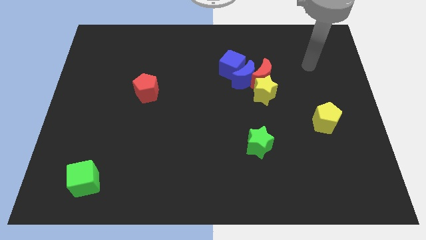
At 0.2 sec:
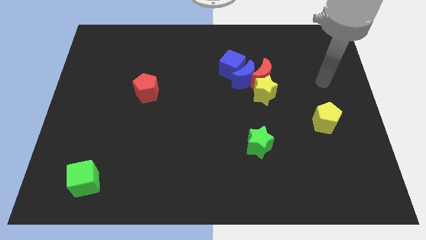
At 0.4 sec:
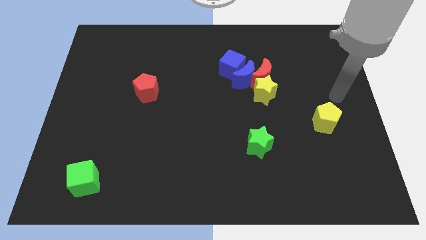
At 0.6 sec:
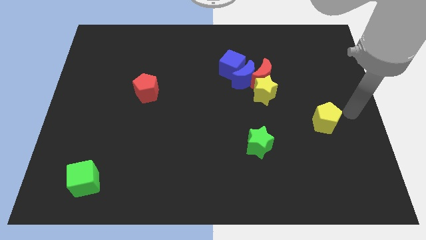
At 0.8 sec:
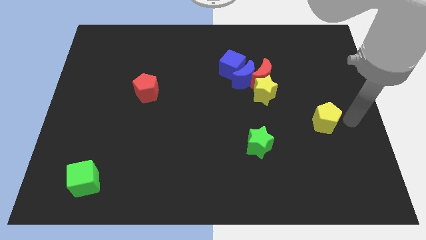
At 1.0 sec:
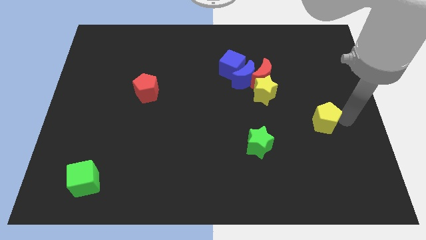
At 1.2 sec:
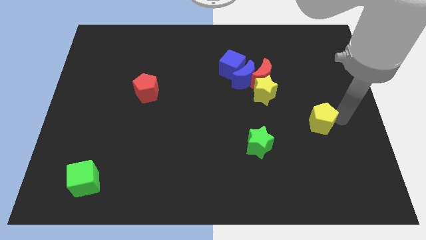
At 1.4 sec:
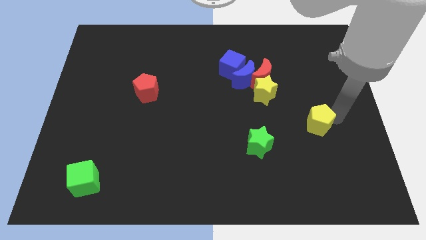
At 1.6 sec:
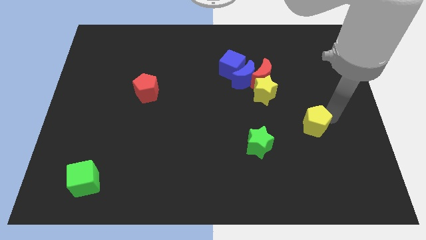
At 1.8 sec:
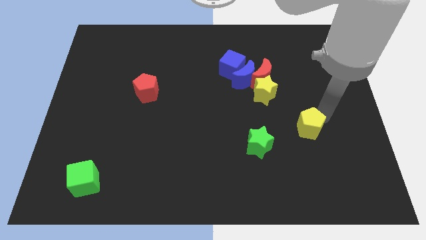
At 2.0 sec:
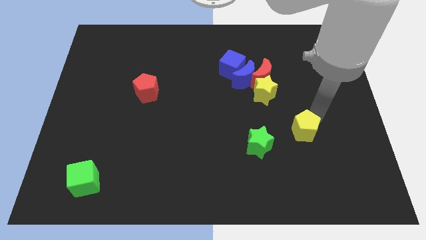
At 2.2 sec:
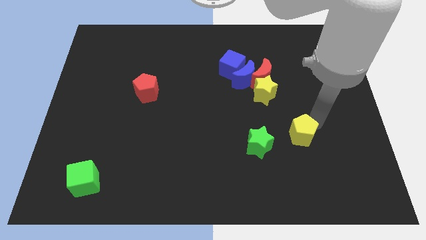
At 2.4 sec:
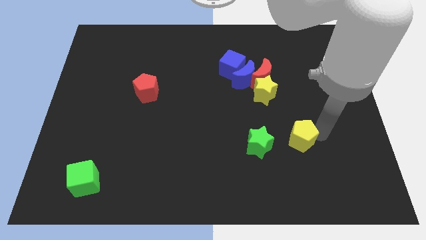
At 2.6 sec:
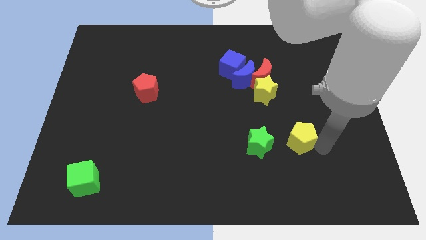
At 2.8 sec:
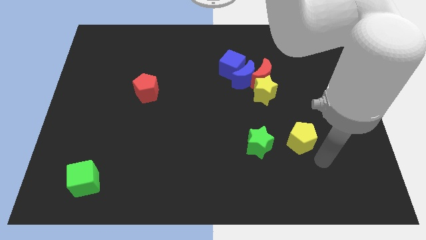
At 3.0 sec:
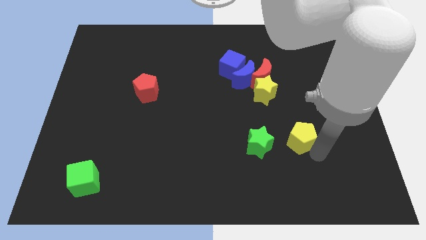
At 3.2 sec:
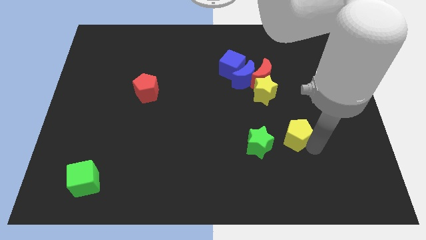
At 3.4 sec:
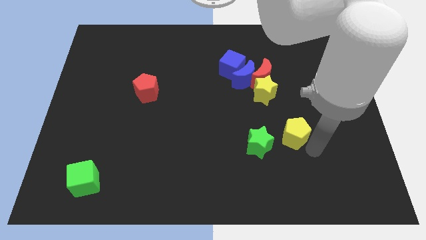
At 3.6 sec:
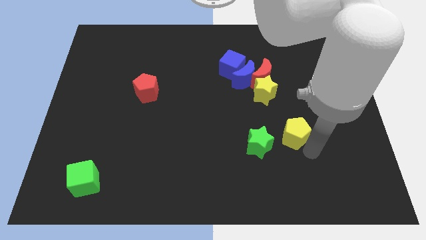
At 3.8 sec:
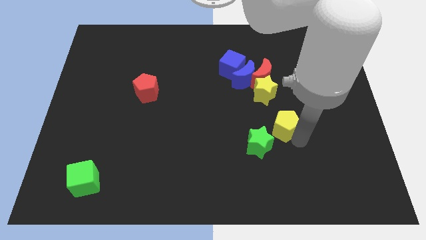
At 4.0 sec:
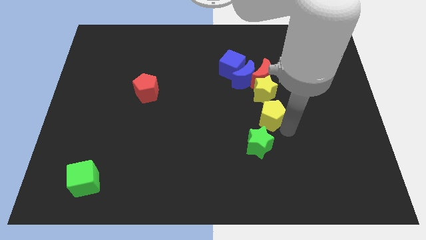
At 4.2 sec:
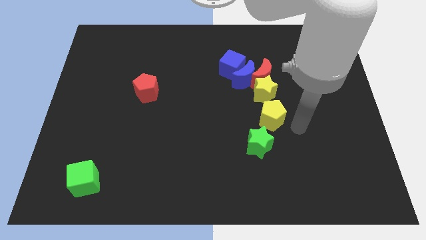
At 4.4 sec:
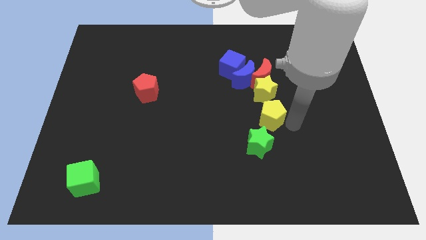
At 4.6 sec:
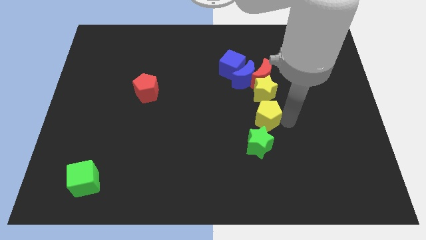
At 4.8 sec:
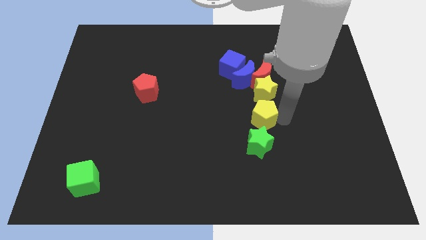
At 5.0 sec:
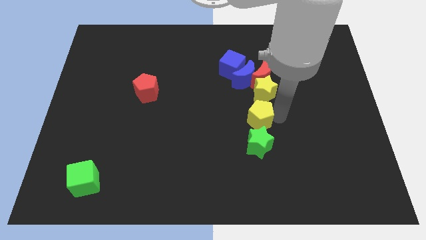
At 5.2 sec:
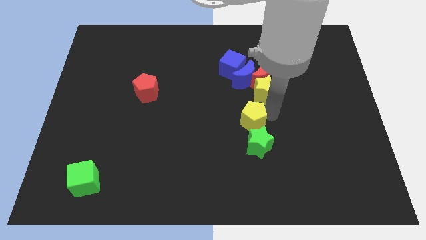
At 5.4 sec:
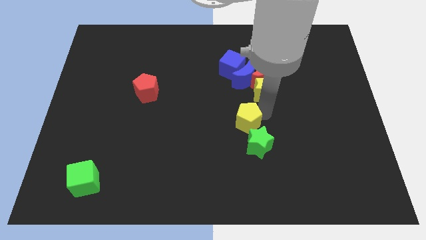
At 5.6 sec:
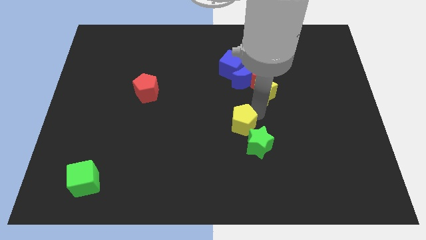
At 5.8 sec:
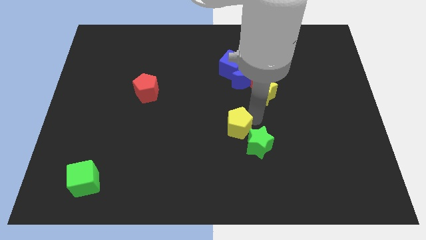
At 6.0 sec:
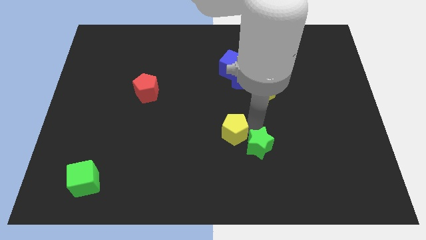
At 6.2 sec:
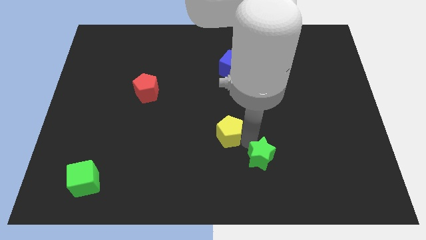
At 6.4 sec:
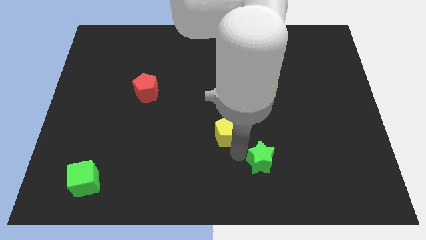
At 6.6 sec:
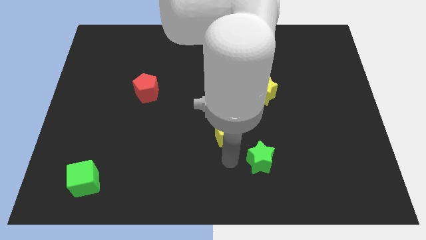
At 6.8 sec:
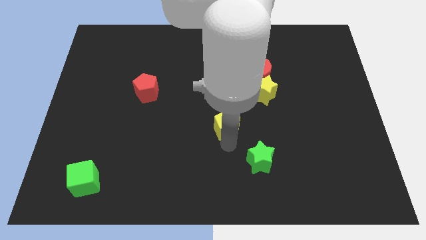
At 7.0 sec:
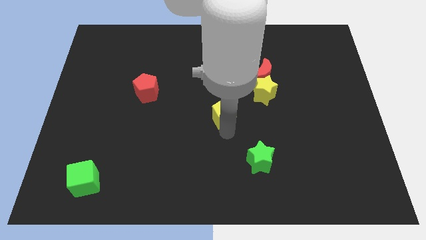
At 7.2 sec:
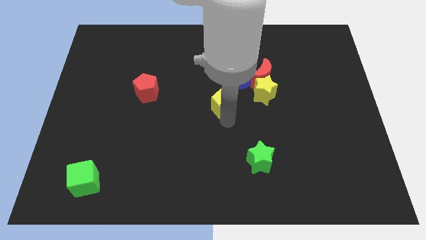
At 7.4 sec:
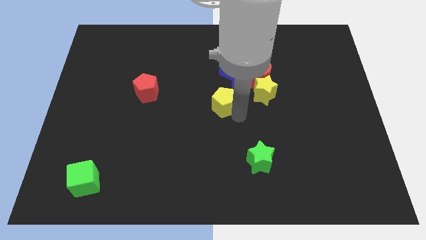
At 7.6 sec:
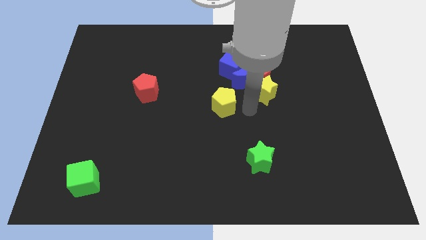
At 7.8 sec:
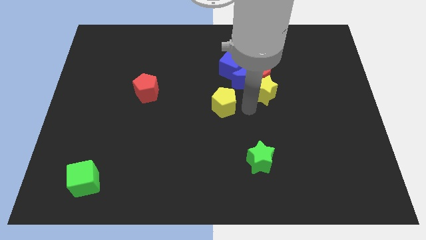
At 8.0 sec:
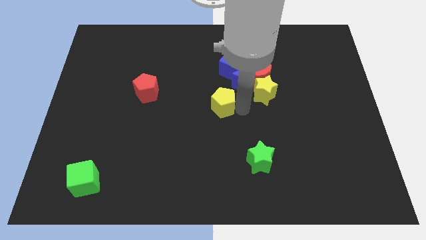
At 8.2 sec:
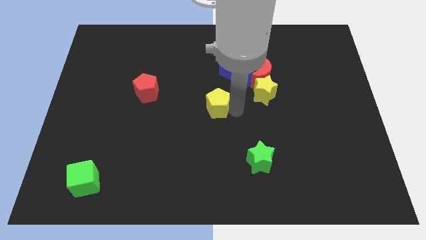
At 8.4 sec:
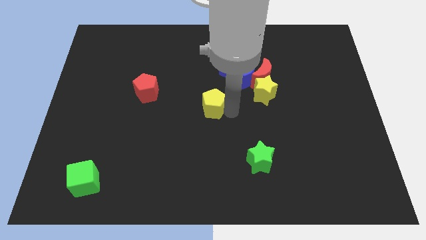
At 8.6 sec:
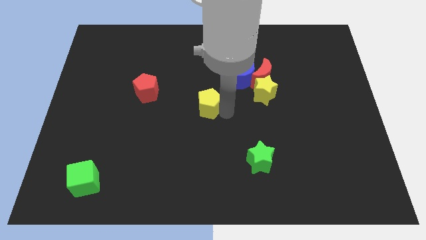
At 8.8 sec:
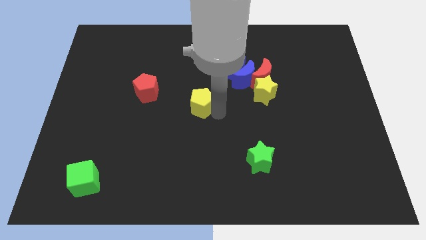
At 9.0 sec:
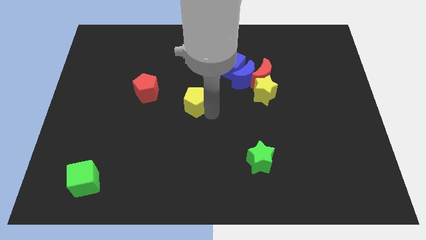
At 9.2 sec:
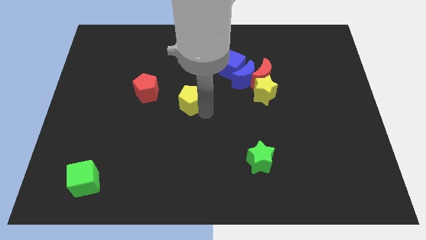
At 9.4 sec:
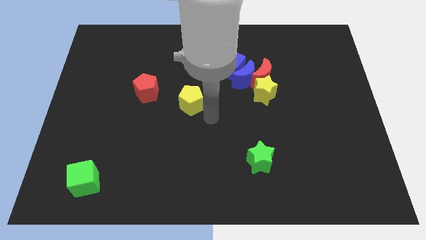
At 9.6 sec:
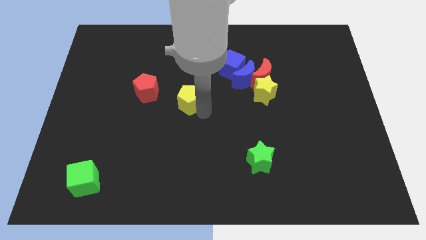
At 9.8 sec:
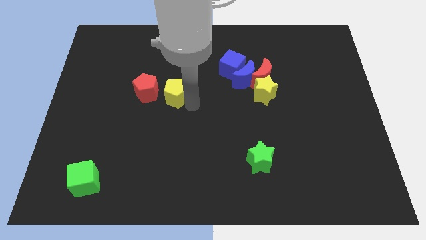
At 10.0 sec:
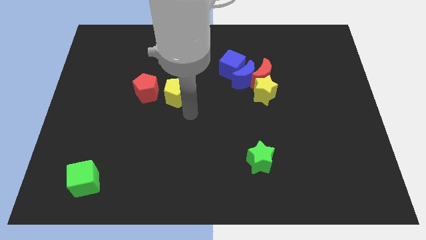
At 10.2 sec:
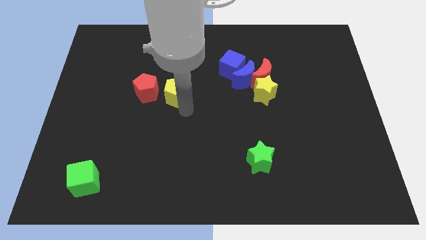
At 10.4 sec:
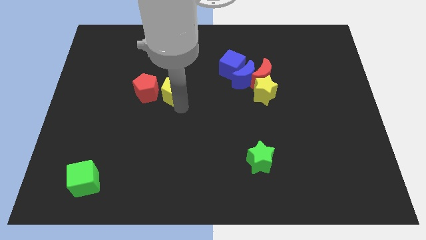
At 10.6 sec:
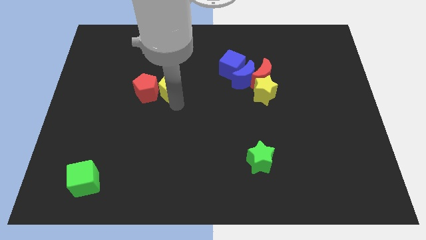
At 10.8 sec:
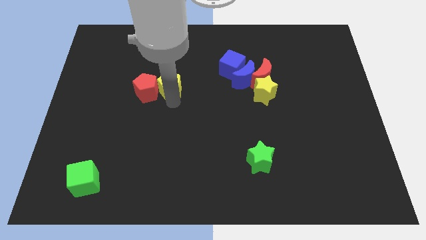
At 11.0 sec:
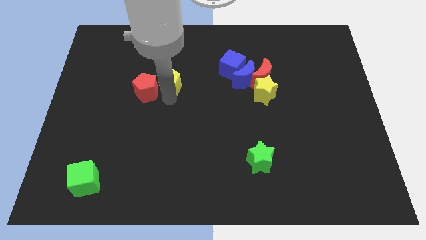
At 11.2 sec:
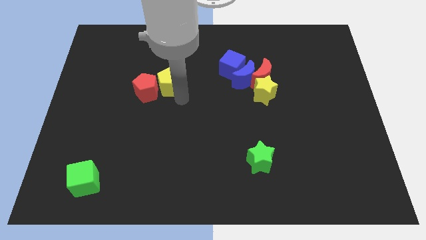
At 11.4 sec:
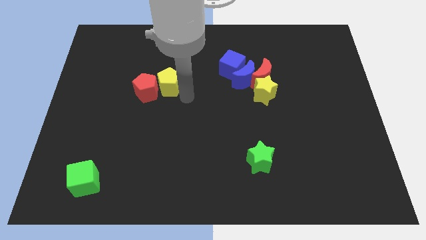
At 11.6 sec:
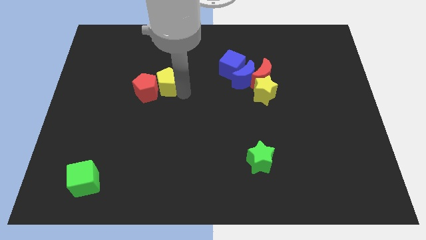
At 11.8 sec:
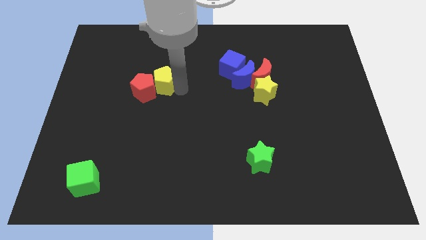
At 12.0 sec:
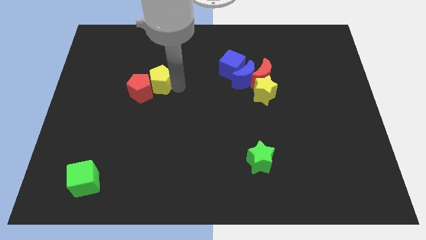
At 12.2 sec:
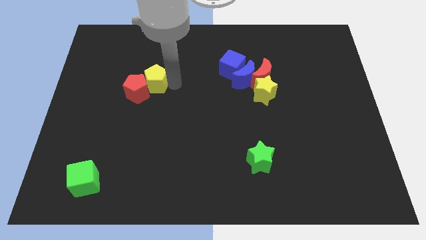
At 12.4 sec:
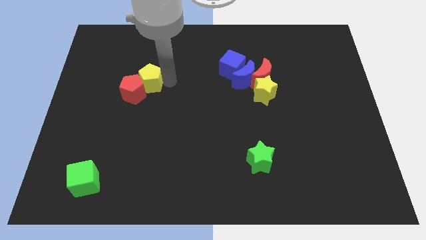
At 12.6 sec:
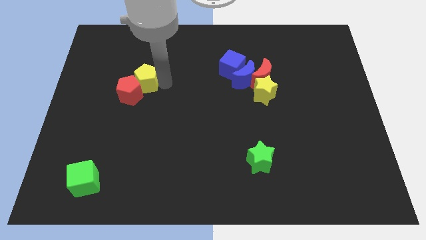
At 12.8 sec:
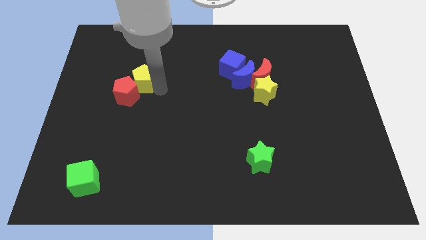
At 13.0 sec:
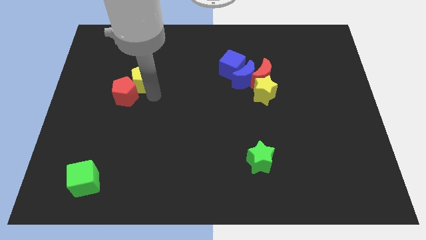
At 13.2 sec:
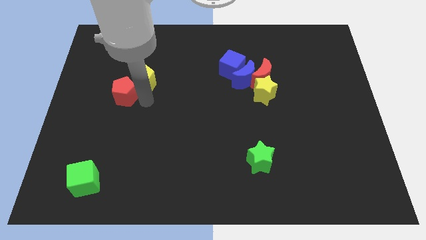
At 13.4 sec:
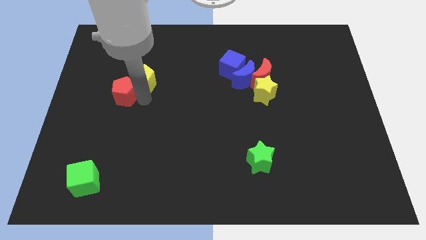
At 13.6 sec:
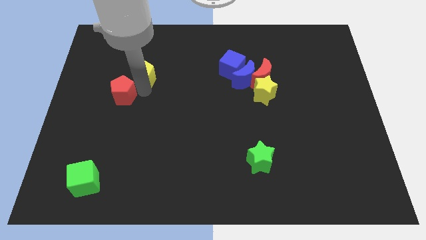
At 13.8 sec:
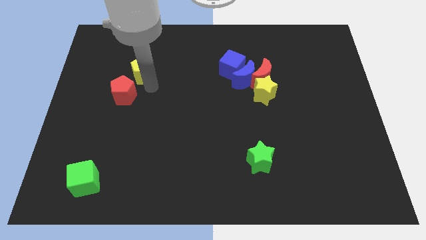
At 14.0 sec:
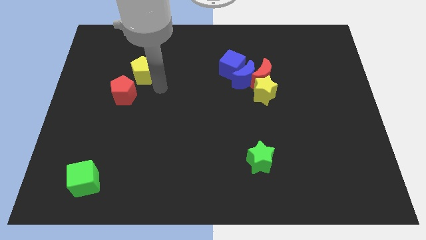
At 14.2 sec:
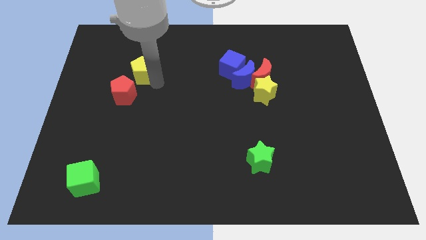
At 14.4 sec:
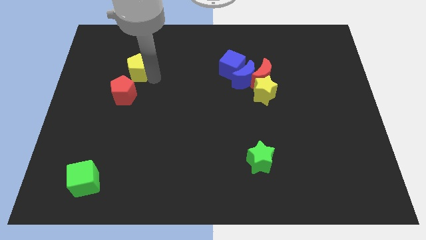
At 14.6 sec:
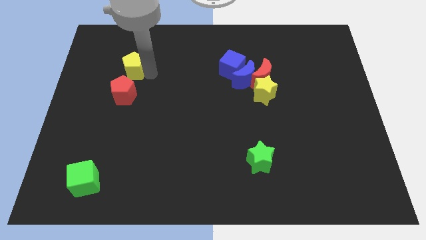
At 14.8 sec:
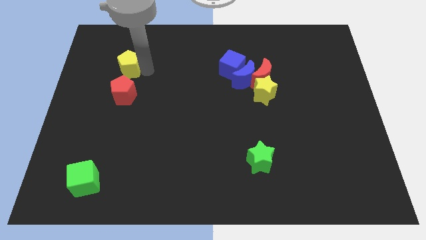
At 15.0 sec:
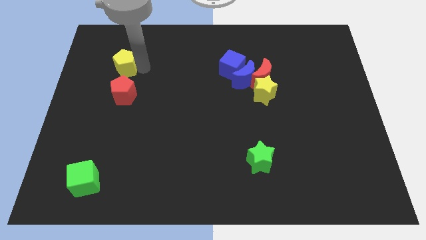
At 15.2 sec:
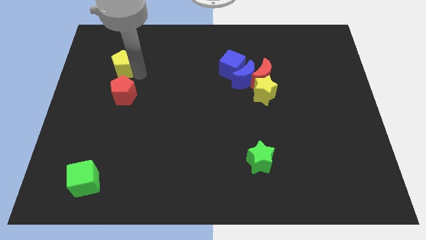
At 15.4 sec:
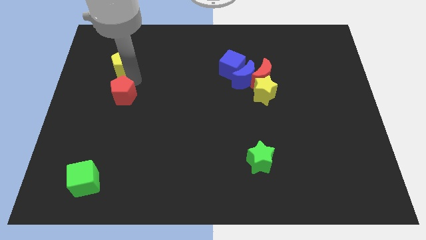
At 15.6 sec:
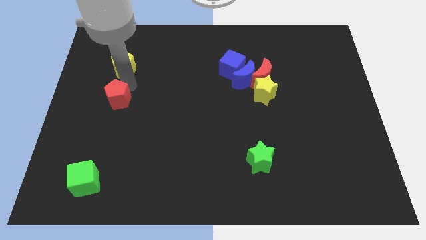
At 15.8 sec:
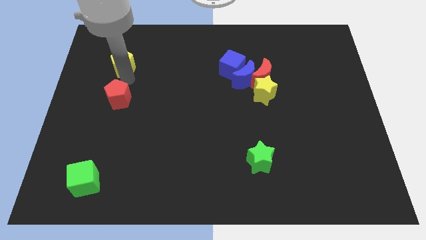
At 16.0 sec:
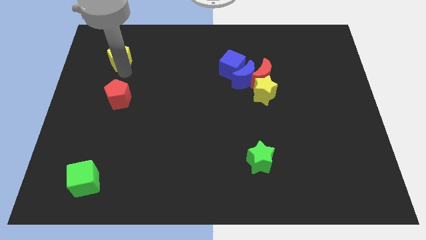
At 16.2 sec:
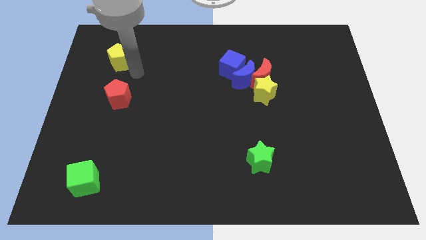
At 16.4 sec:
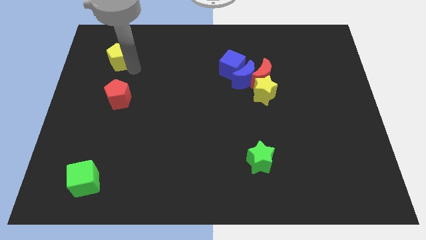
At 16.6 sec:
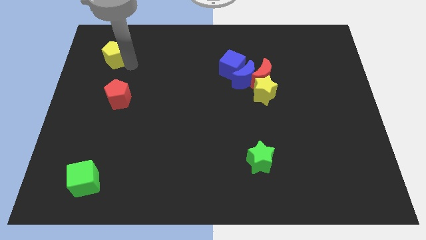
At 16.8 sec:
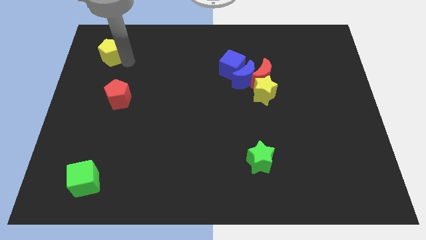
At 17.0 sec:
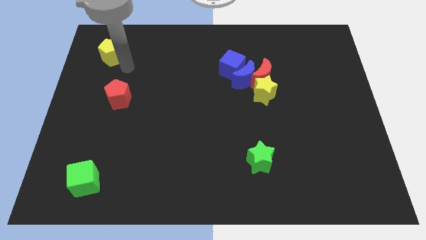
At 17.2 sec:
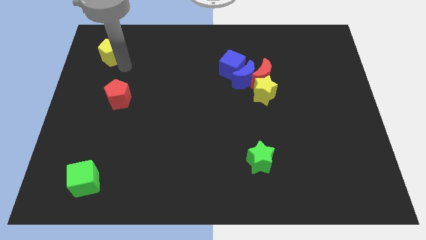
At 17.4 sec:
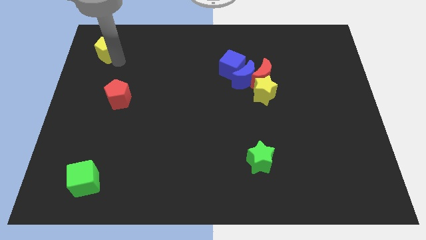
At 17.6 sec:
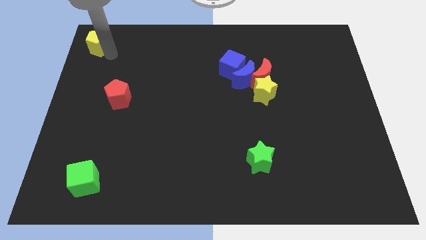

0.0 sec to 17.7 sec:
slide the yellow pentagon to the top left
